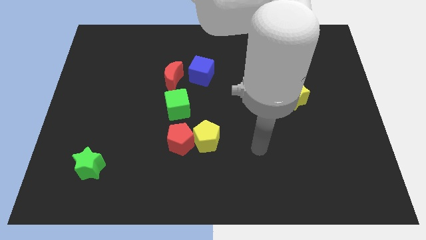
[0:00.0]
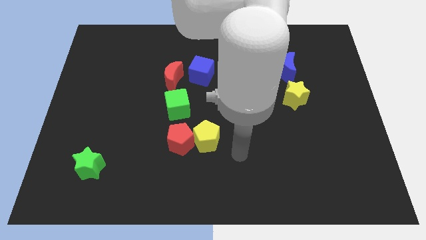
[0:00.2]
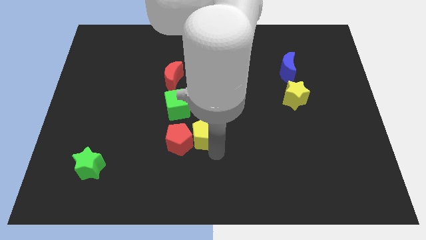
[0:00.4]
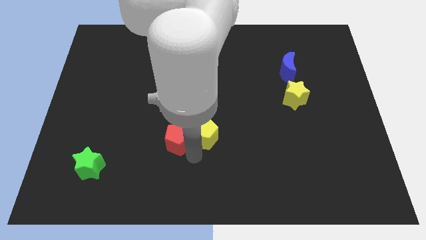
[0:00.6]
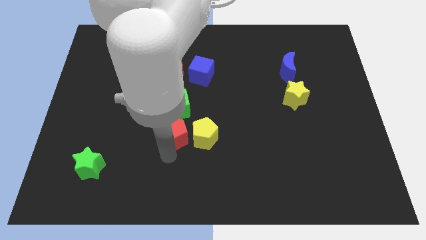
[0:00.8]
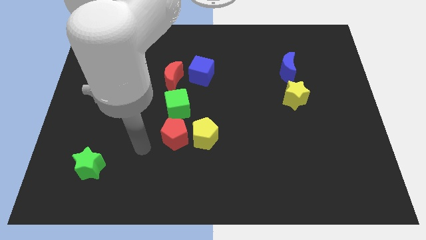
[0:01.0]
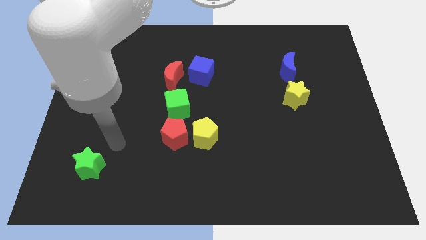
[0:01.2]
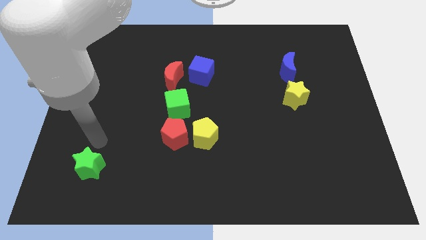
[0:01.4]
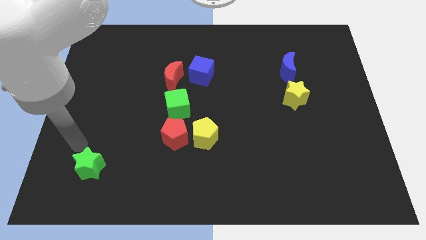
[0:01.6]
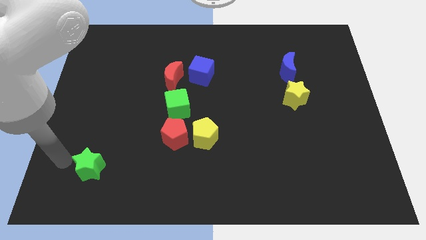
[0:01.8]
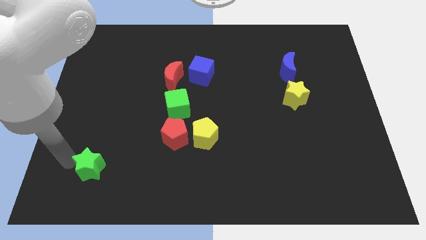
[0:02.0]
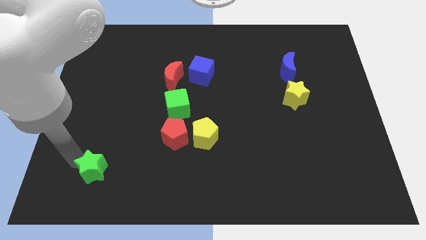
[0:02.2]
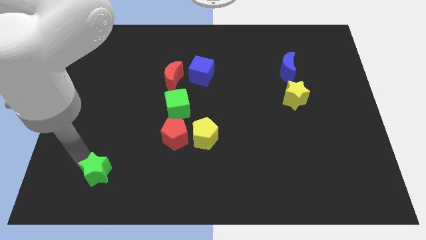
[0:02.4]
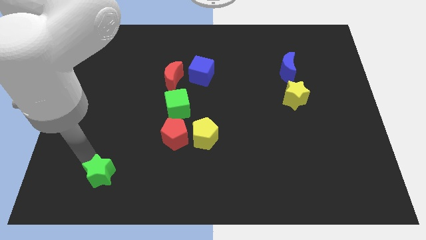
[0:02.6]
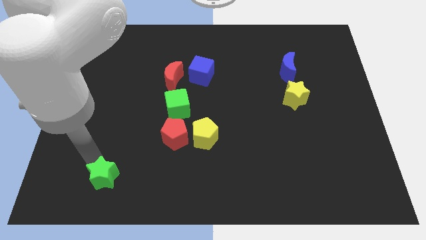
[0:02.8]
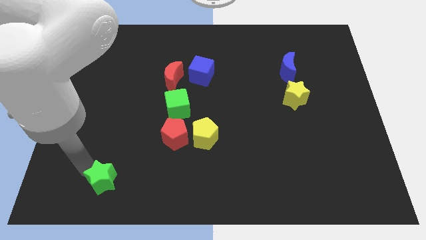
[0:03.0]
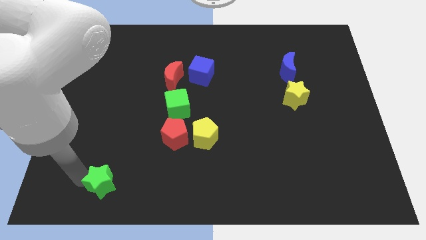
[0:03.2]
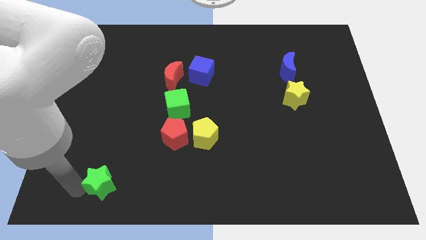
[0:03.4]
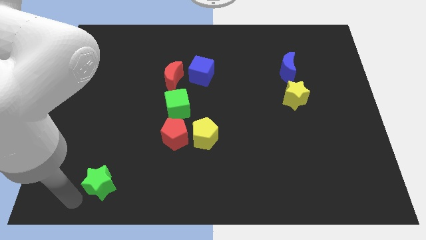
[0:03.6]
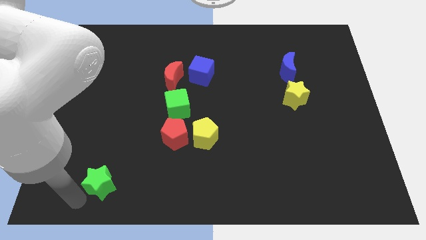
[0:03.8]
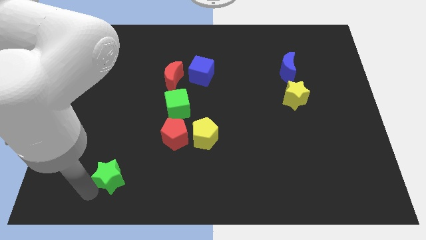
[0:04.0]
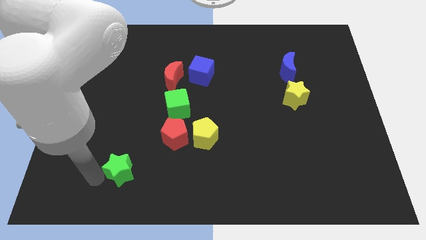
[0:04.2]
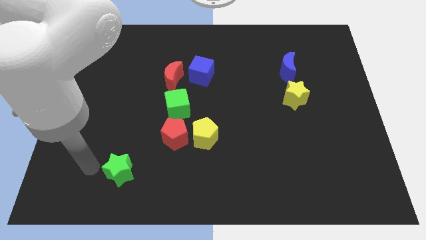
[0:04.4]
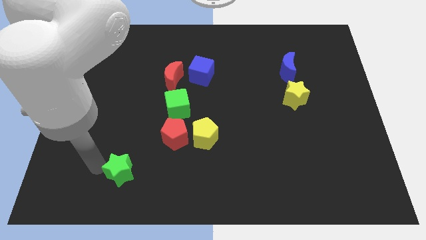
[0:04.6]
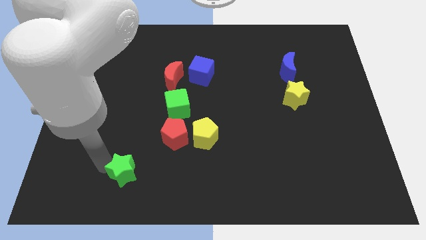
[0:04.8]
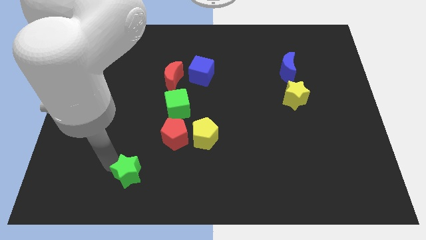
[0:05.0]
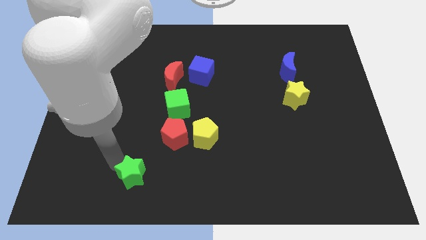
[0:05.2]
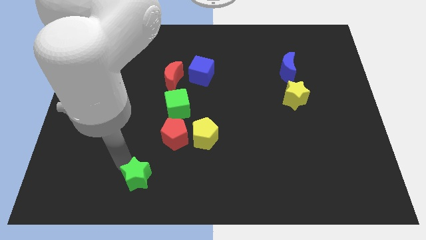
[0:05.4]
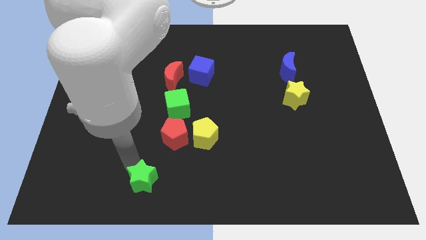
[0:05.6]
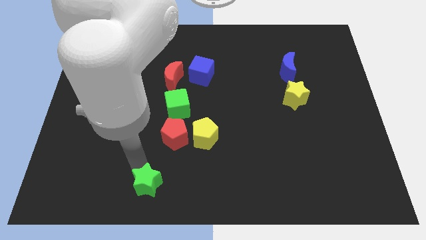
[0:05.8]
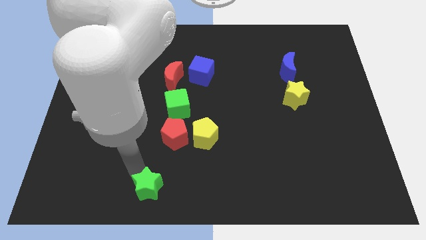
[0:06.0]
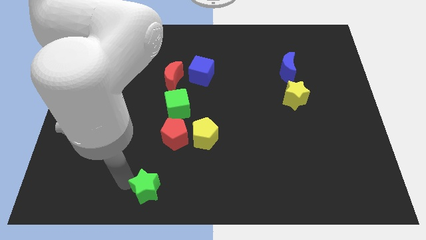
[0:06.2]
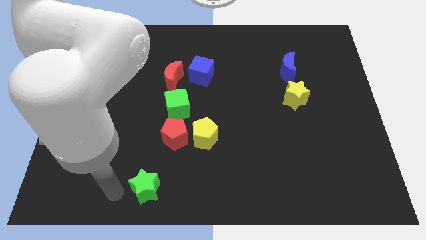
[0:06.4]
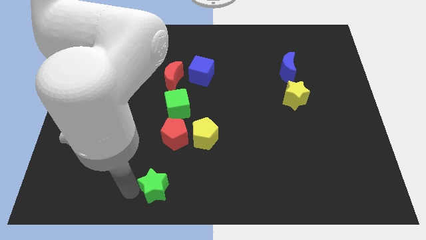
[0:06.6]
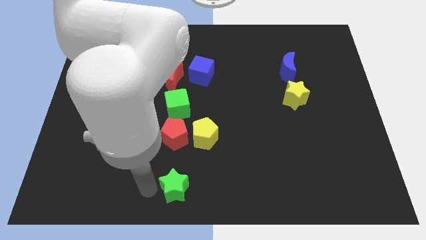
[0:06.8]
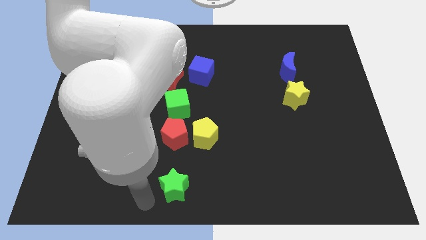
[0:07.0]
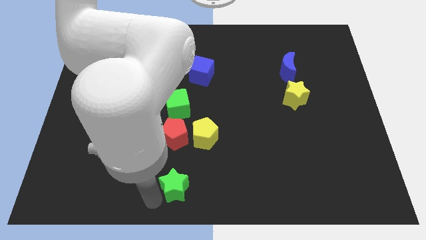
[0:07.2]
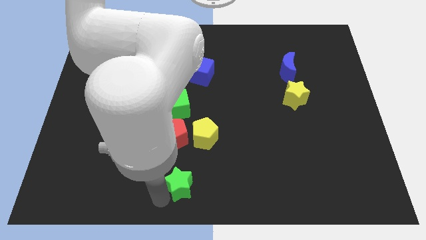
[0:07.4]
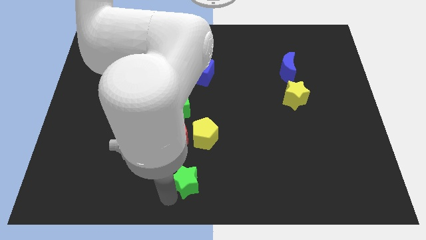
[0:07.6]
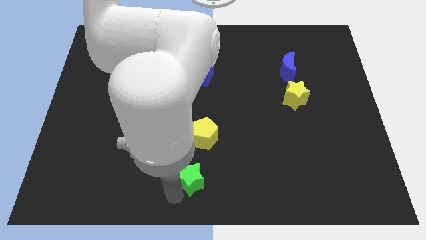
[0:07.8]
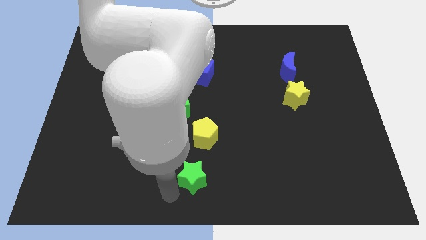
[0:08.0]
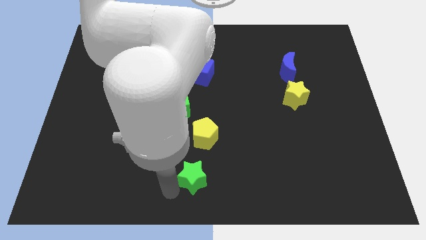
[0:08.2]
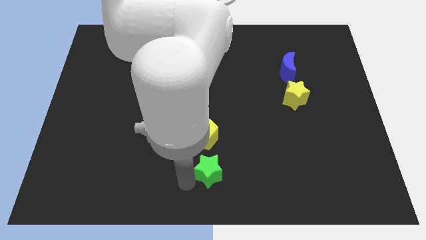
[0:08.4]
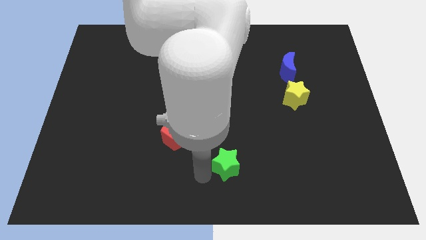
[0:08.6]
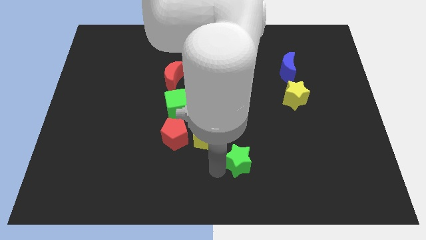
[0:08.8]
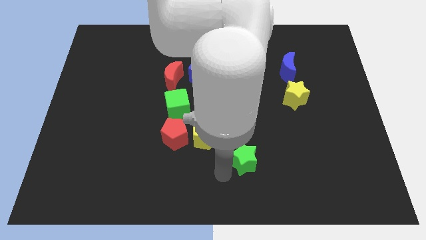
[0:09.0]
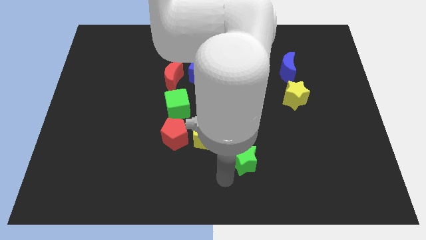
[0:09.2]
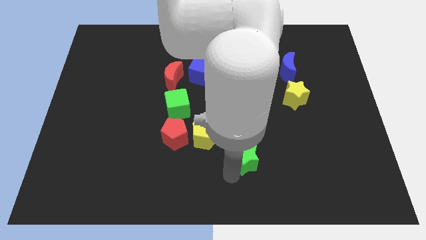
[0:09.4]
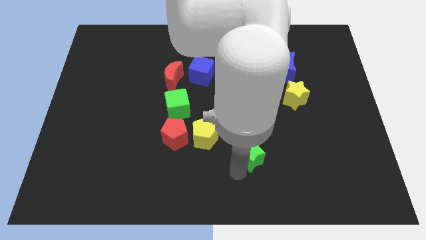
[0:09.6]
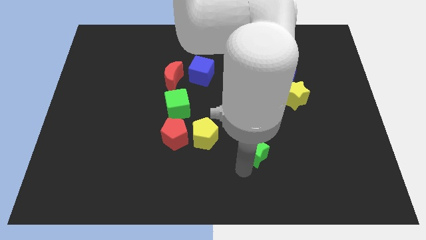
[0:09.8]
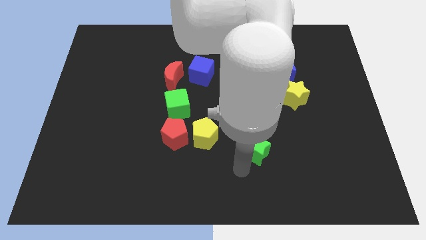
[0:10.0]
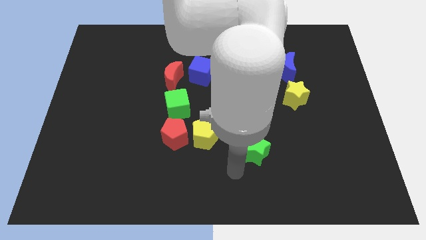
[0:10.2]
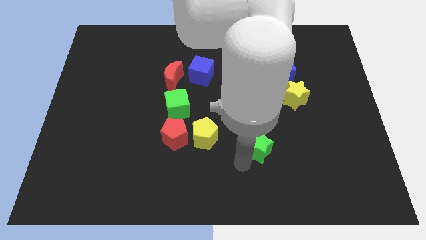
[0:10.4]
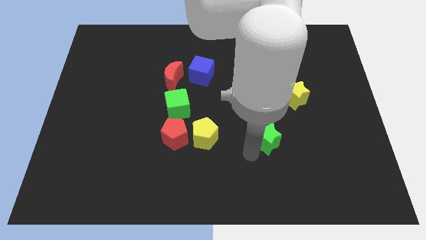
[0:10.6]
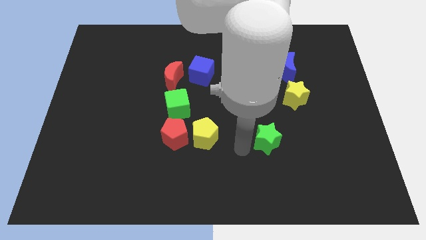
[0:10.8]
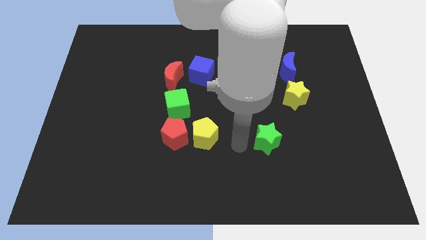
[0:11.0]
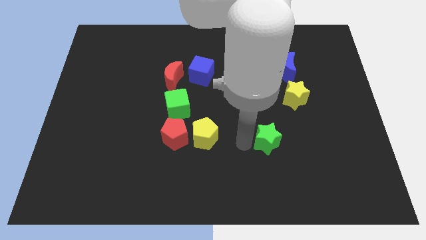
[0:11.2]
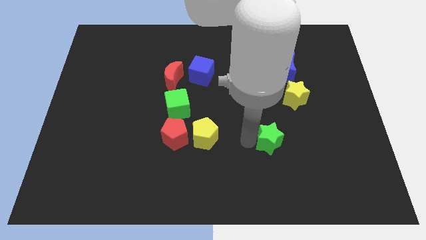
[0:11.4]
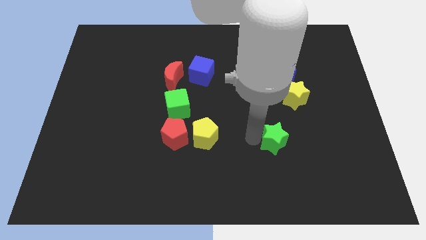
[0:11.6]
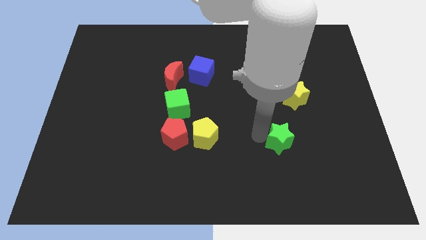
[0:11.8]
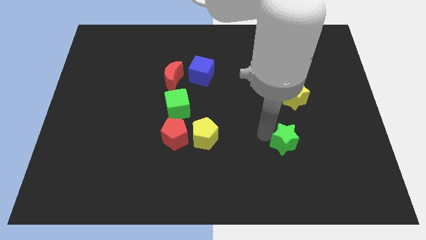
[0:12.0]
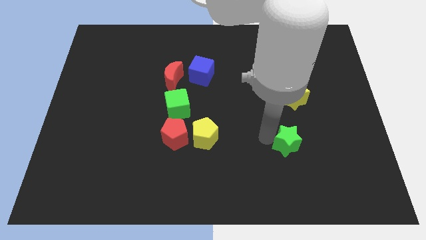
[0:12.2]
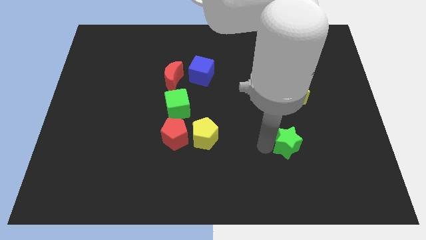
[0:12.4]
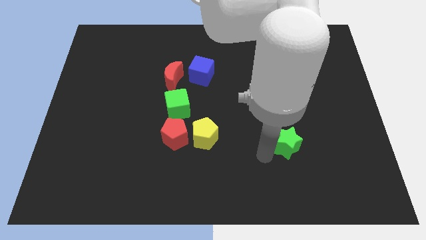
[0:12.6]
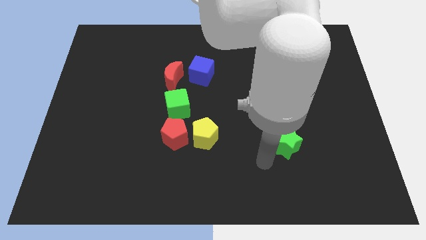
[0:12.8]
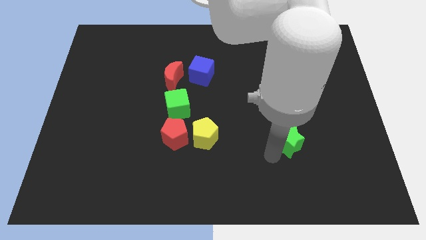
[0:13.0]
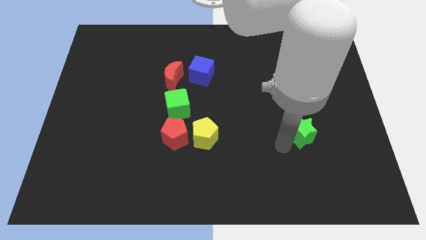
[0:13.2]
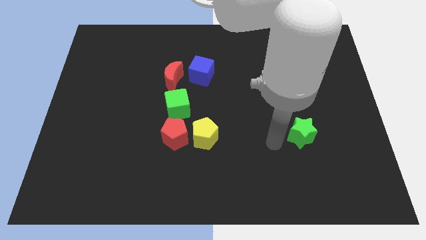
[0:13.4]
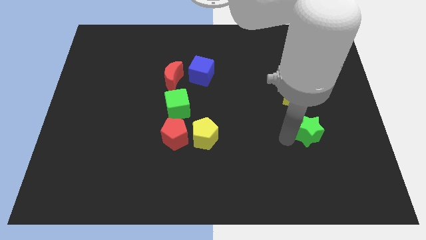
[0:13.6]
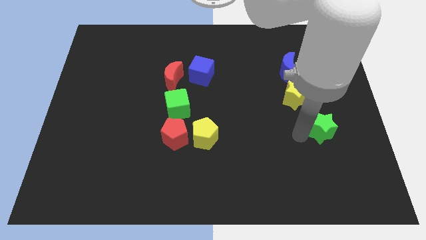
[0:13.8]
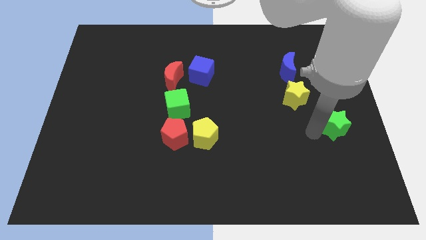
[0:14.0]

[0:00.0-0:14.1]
move the green star to the center right
